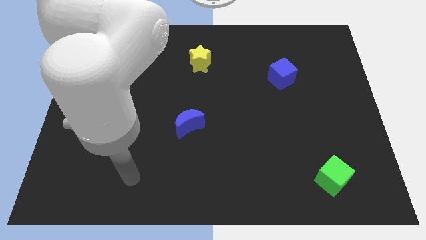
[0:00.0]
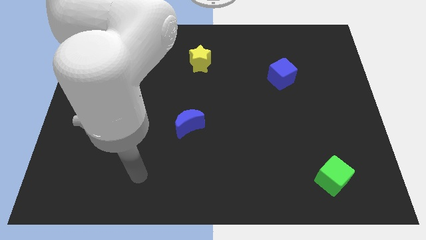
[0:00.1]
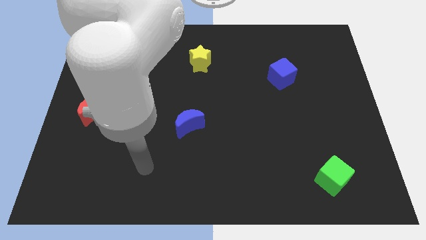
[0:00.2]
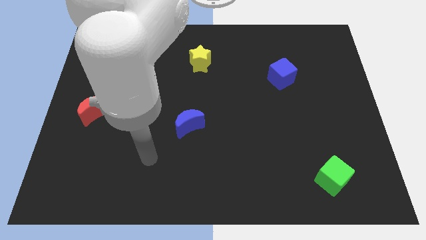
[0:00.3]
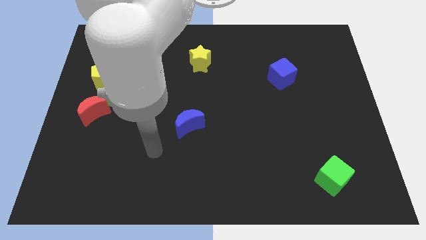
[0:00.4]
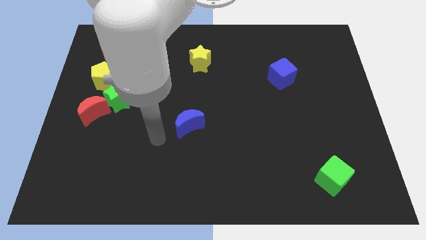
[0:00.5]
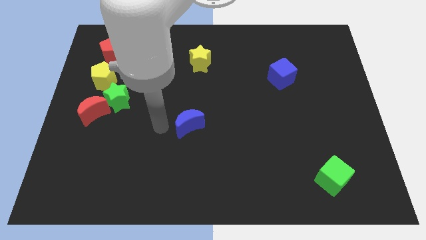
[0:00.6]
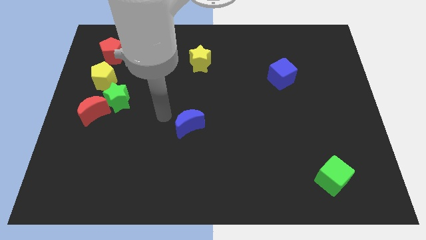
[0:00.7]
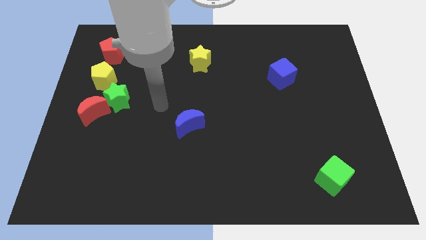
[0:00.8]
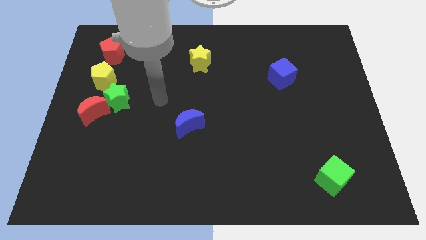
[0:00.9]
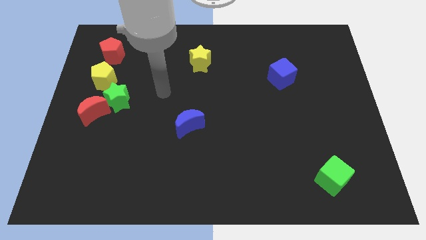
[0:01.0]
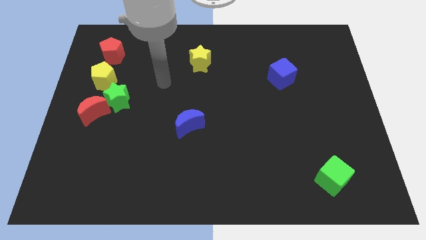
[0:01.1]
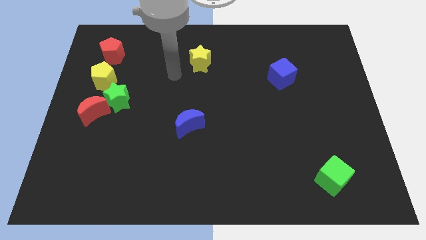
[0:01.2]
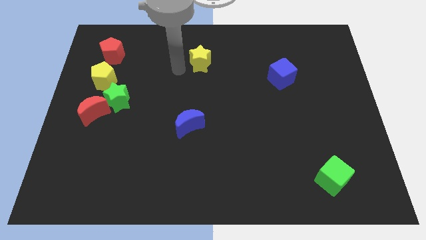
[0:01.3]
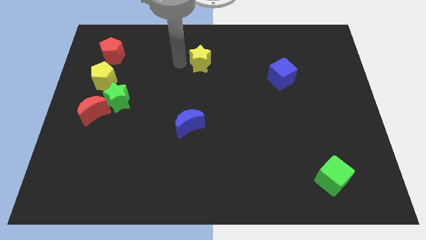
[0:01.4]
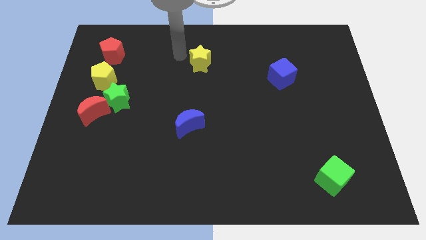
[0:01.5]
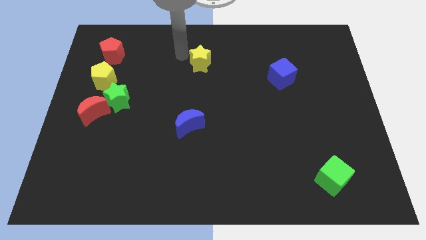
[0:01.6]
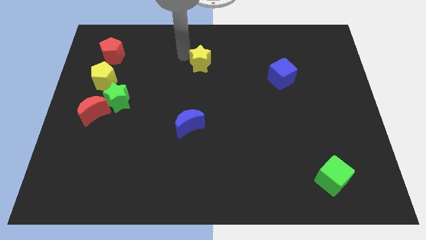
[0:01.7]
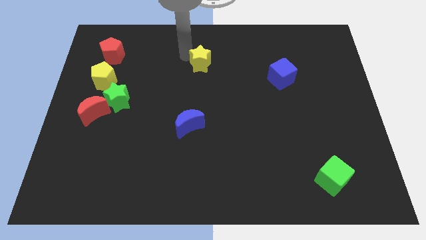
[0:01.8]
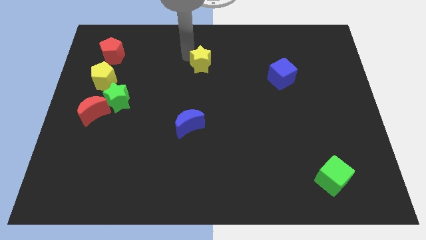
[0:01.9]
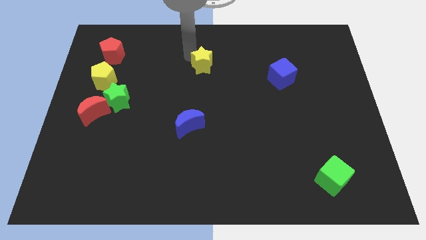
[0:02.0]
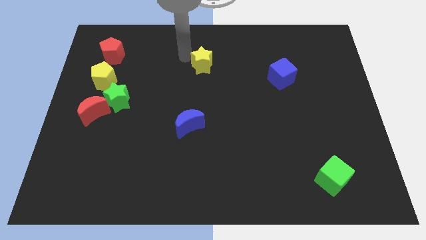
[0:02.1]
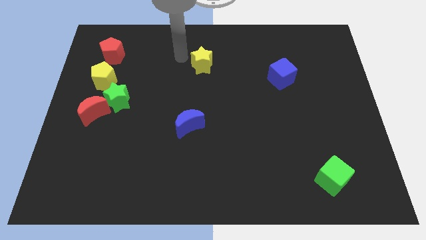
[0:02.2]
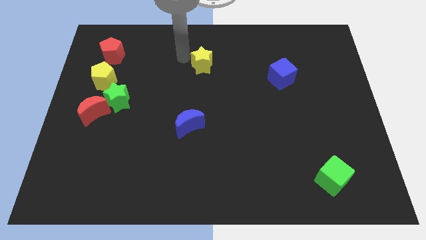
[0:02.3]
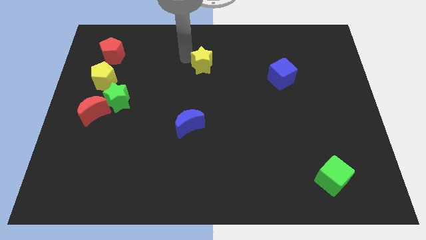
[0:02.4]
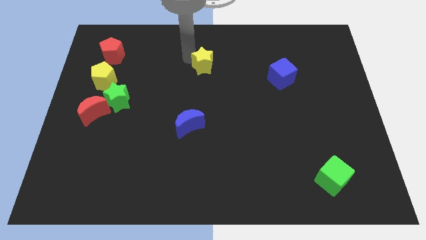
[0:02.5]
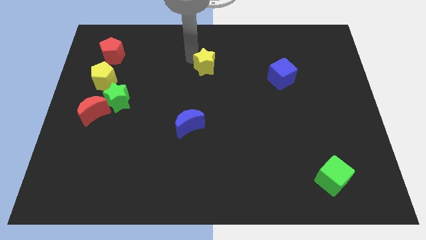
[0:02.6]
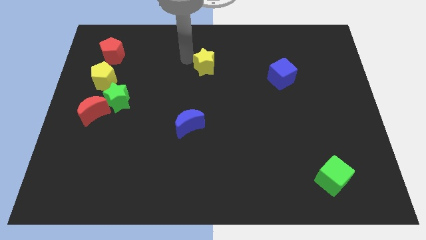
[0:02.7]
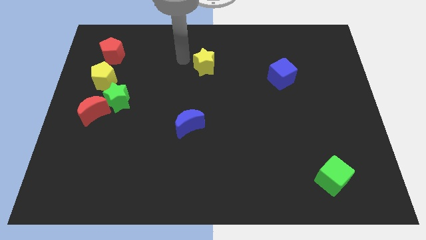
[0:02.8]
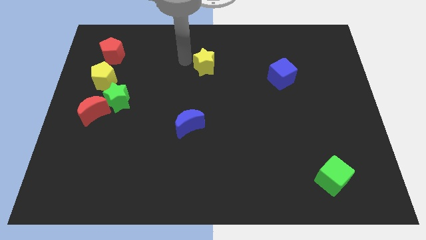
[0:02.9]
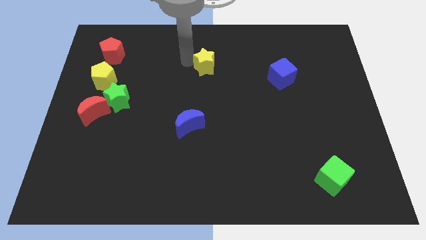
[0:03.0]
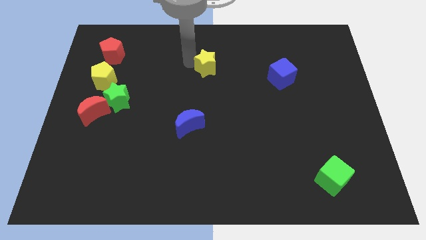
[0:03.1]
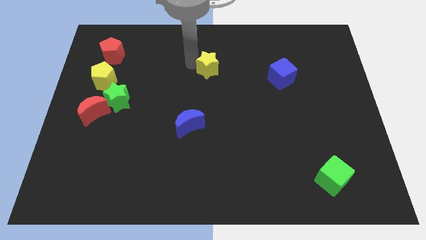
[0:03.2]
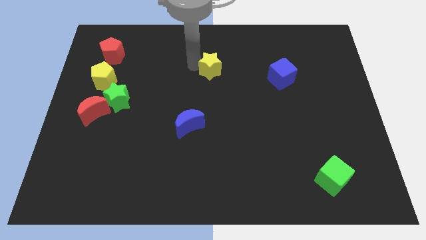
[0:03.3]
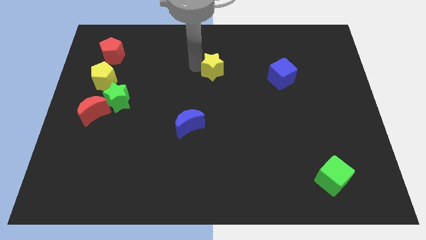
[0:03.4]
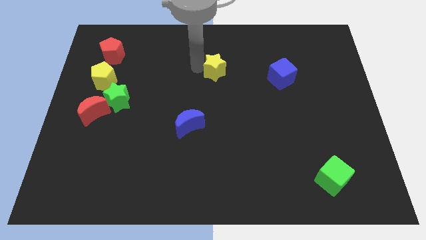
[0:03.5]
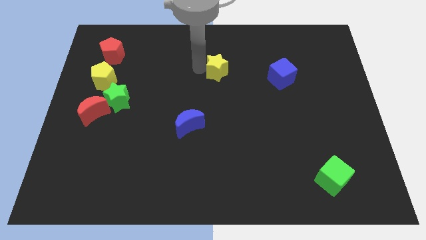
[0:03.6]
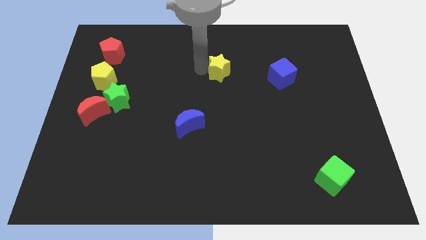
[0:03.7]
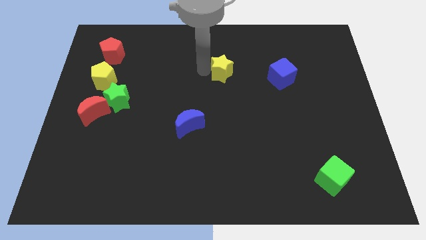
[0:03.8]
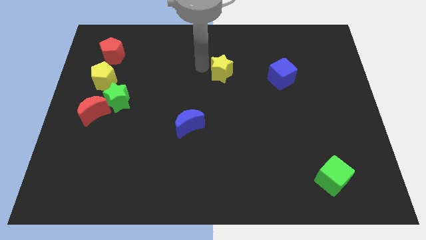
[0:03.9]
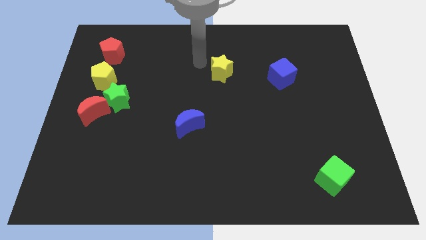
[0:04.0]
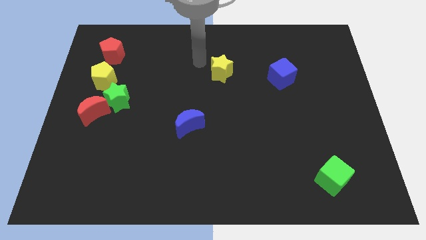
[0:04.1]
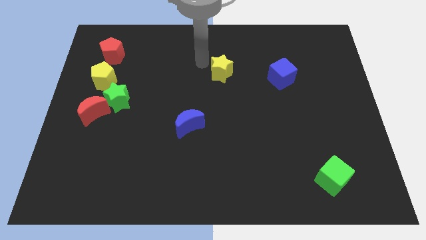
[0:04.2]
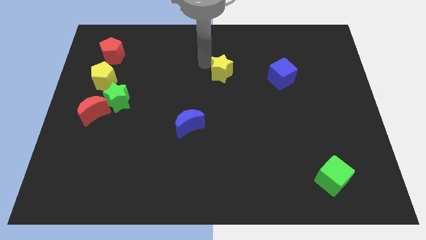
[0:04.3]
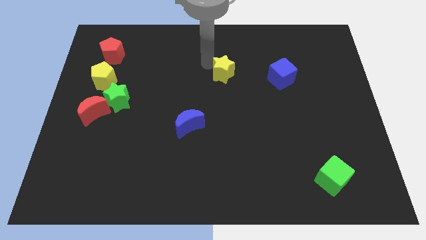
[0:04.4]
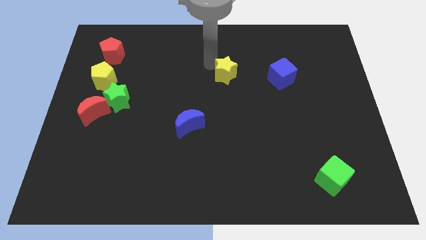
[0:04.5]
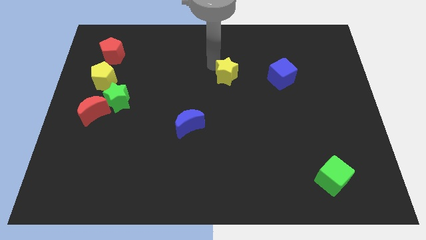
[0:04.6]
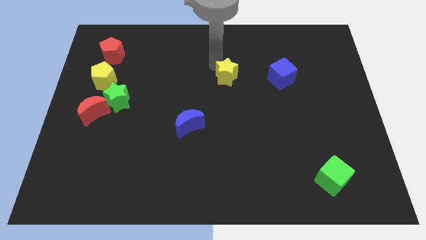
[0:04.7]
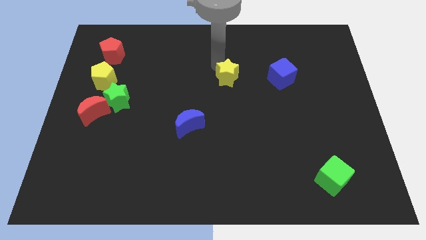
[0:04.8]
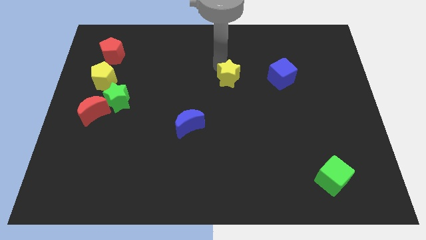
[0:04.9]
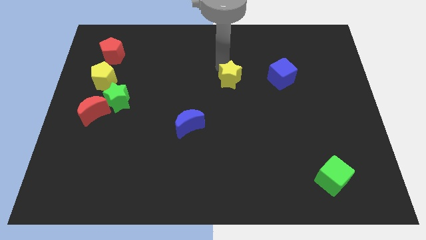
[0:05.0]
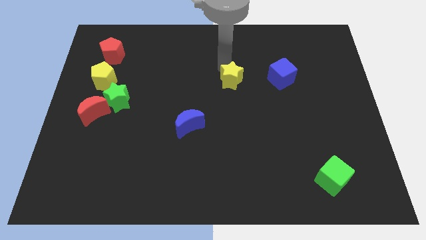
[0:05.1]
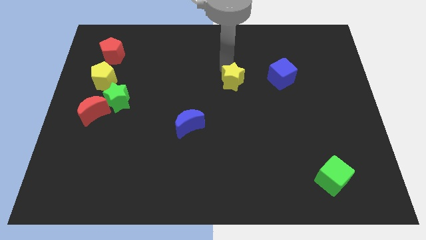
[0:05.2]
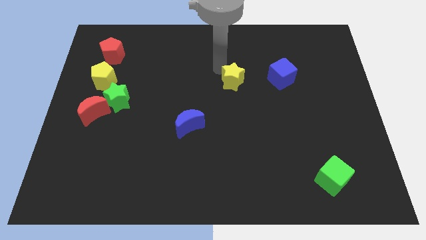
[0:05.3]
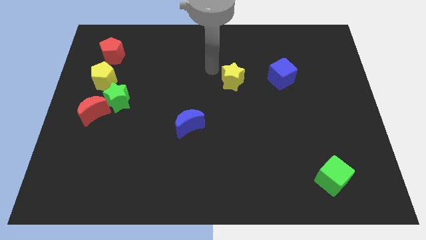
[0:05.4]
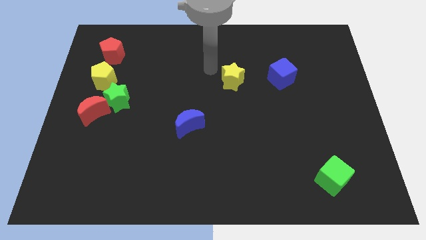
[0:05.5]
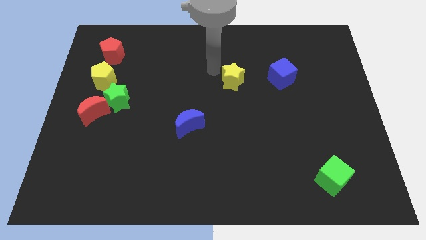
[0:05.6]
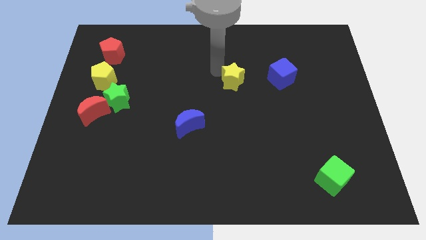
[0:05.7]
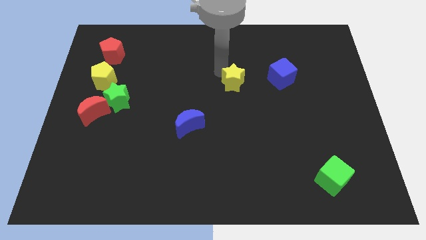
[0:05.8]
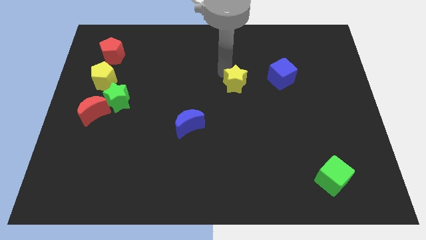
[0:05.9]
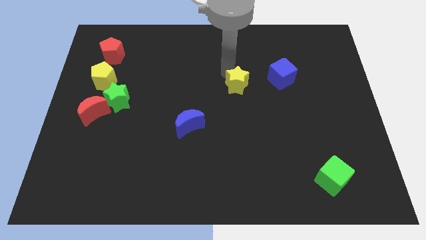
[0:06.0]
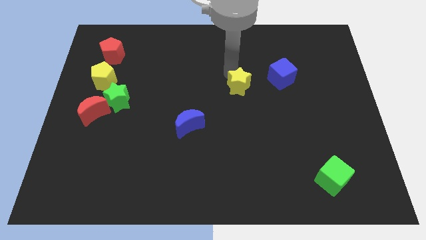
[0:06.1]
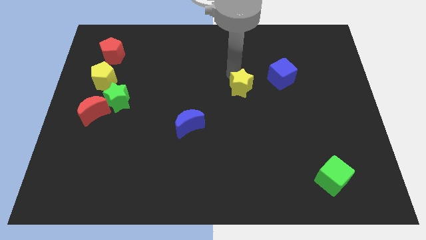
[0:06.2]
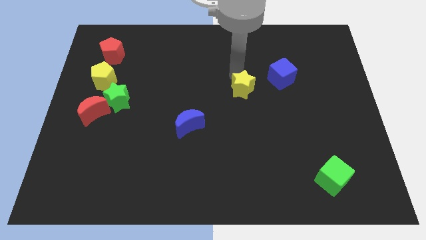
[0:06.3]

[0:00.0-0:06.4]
slide the yellow star to the bottom left side of the blue cube
